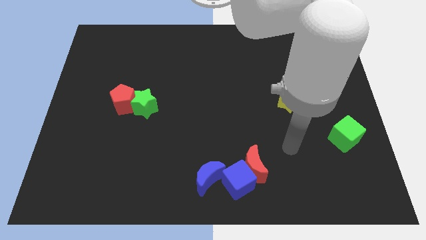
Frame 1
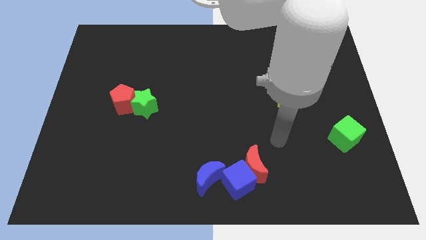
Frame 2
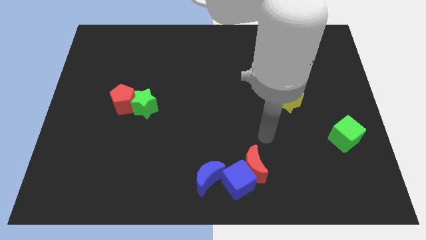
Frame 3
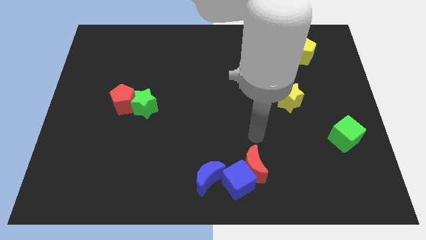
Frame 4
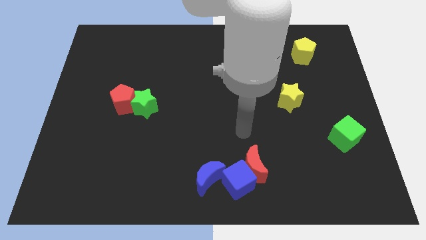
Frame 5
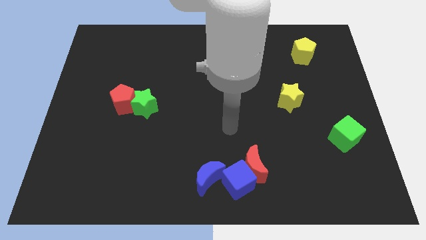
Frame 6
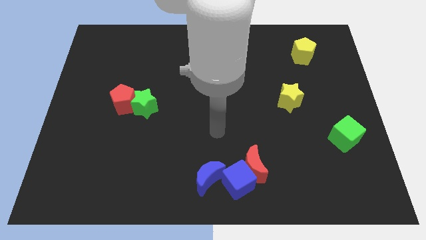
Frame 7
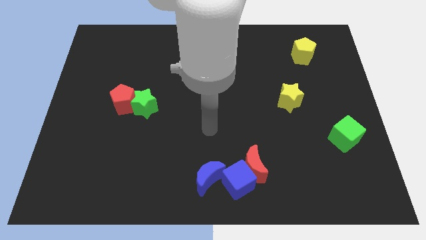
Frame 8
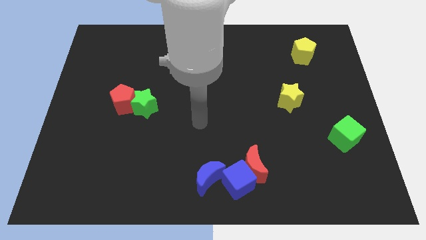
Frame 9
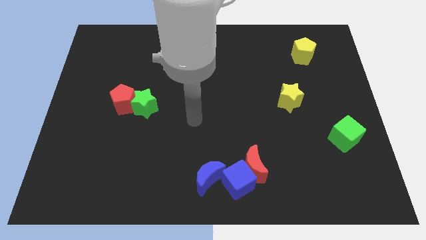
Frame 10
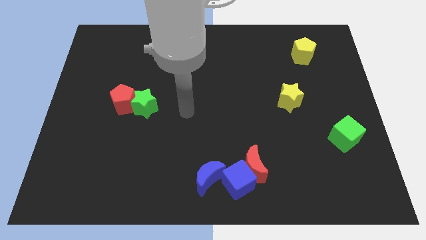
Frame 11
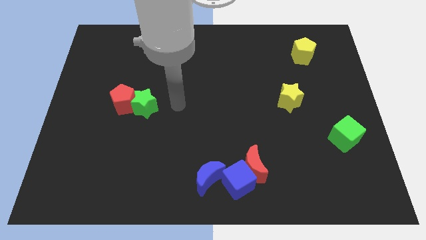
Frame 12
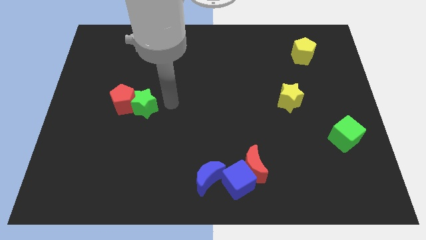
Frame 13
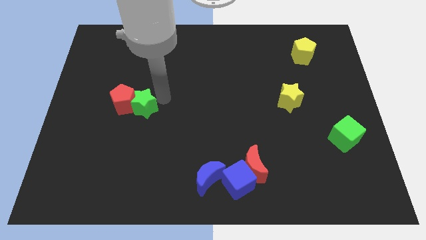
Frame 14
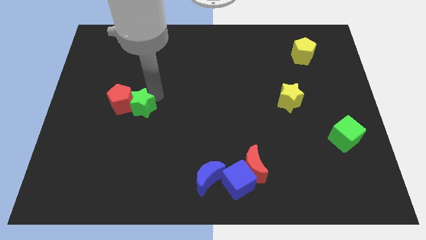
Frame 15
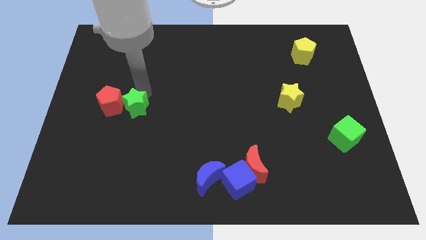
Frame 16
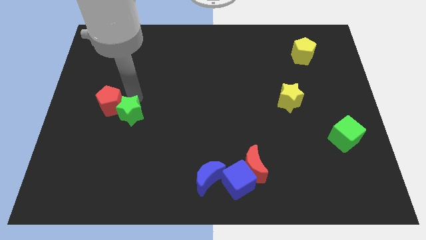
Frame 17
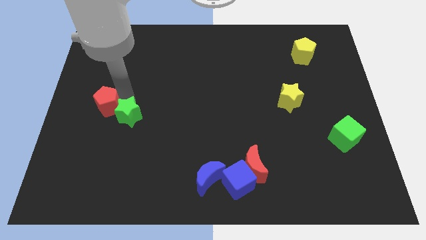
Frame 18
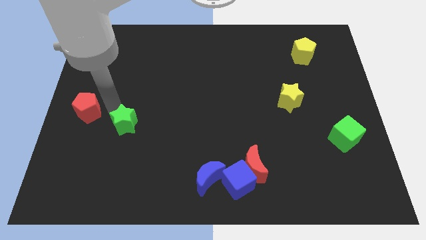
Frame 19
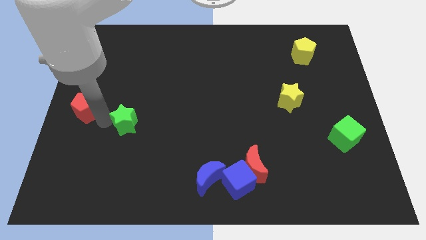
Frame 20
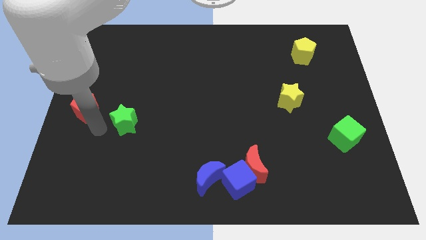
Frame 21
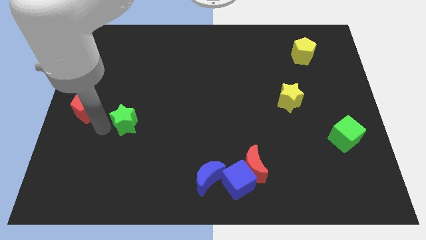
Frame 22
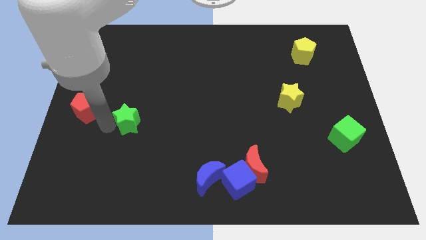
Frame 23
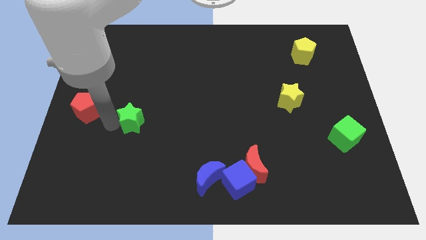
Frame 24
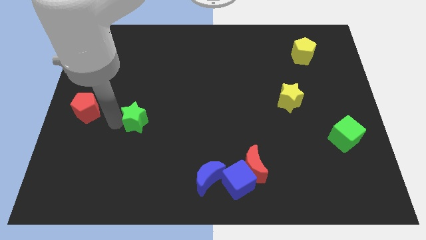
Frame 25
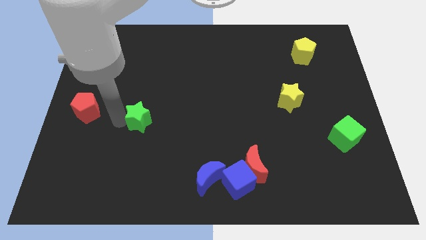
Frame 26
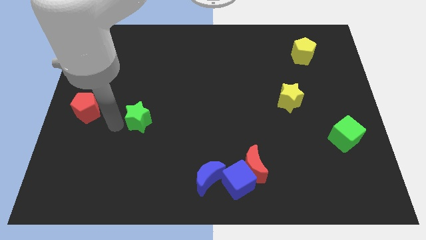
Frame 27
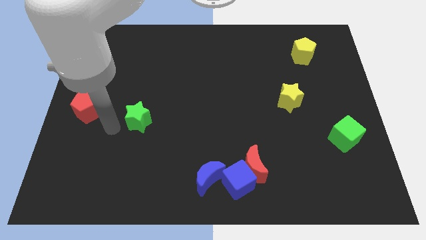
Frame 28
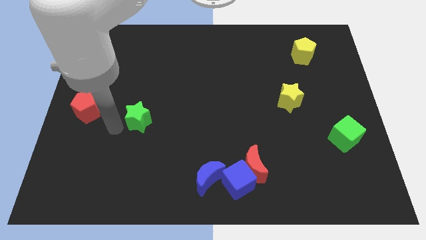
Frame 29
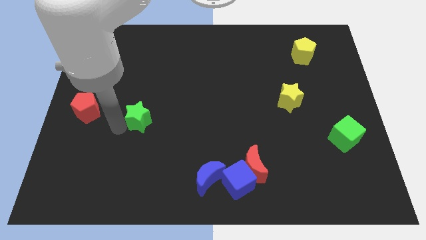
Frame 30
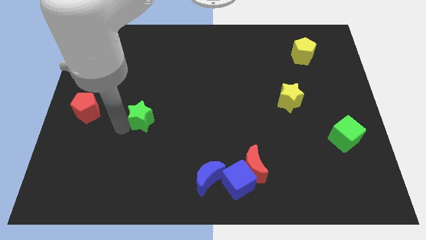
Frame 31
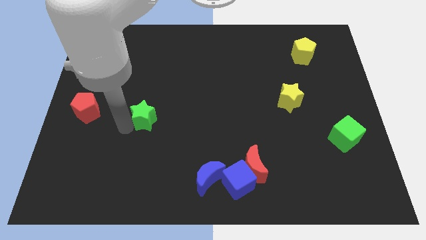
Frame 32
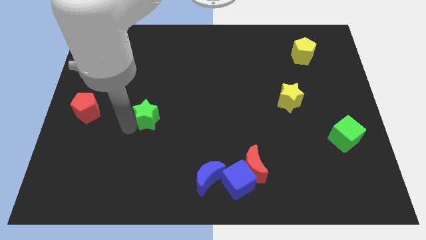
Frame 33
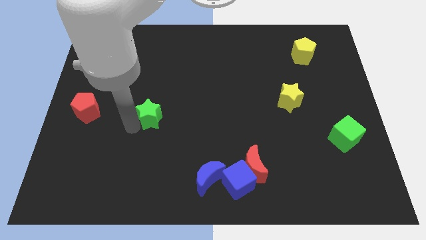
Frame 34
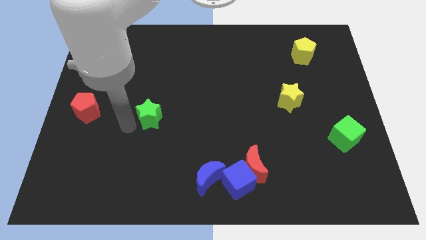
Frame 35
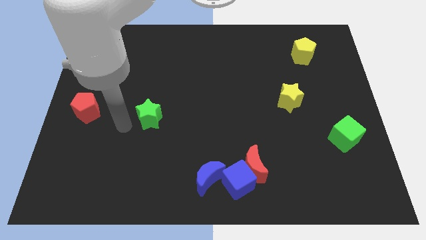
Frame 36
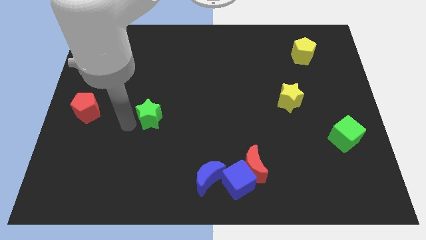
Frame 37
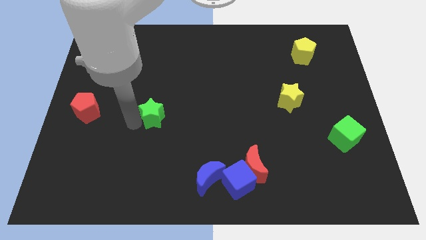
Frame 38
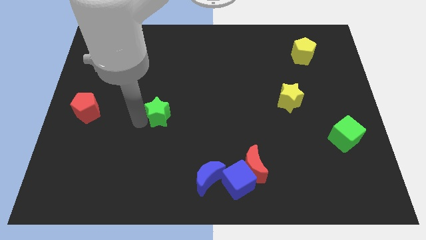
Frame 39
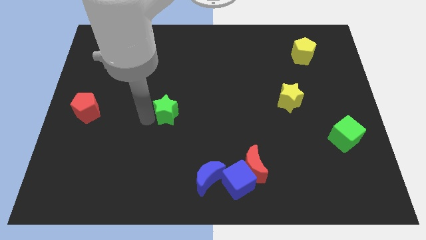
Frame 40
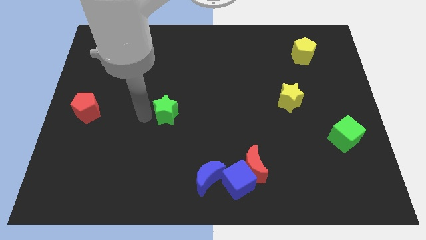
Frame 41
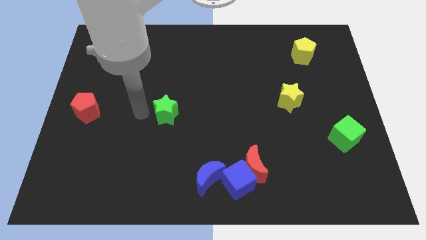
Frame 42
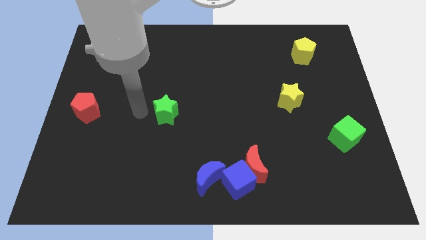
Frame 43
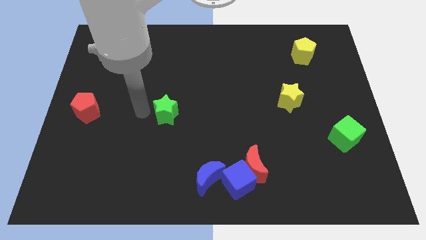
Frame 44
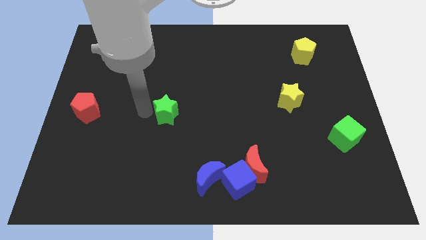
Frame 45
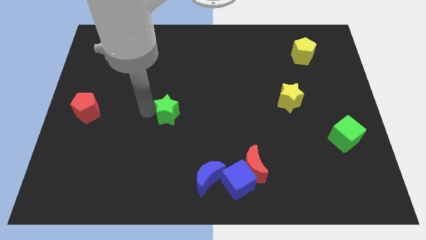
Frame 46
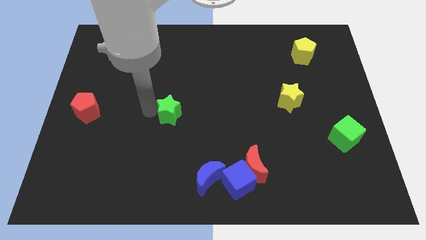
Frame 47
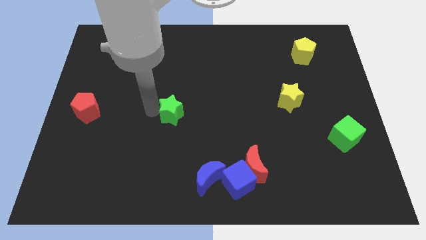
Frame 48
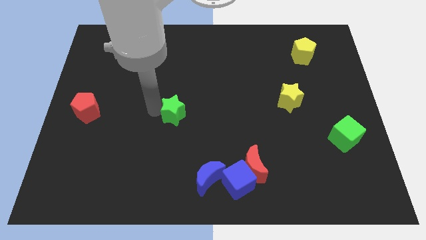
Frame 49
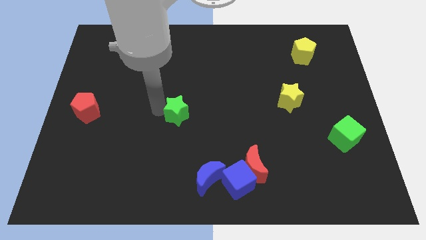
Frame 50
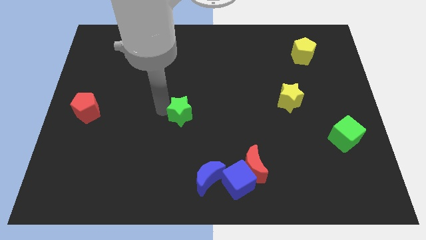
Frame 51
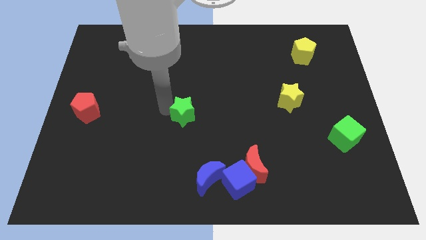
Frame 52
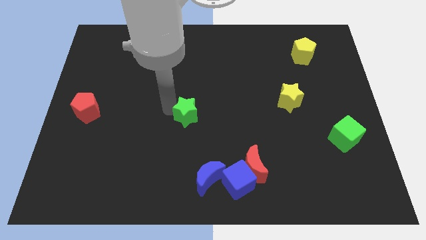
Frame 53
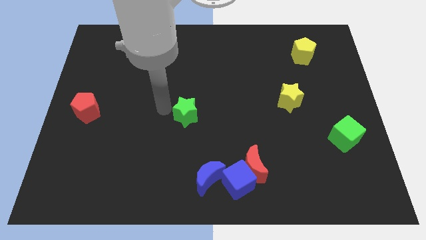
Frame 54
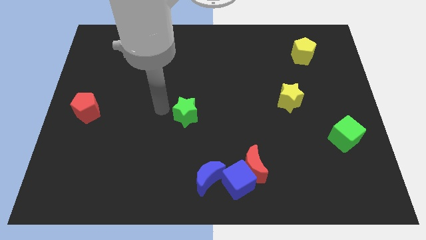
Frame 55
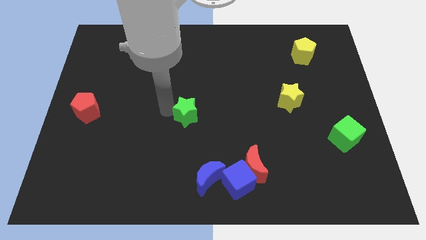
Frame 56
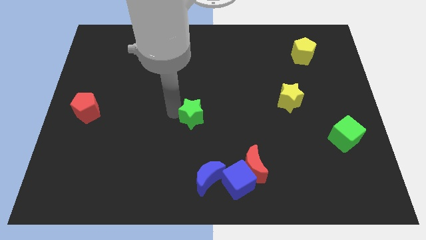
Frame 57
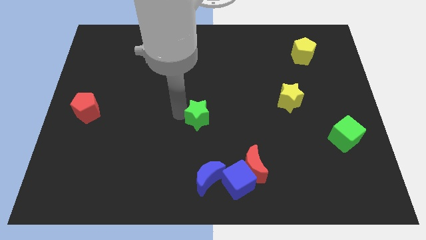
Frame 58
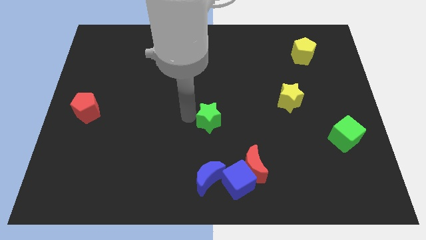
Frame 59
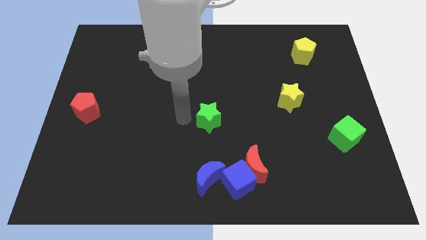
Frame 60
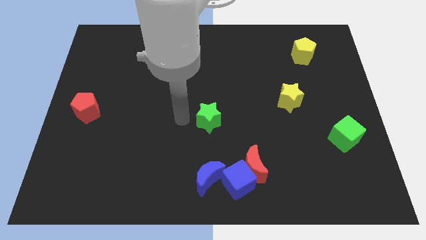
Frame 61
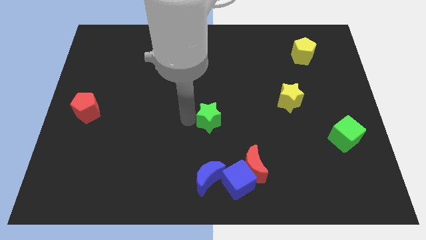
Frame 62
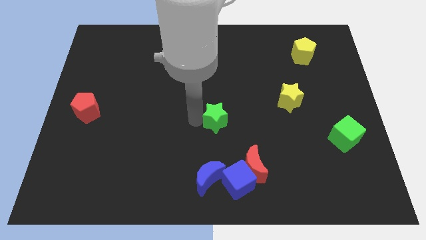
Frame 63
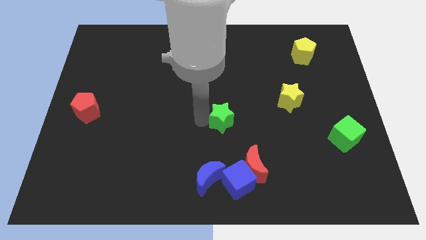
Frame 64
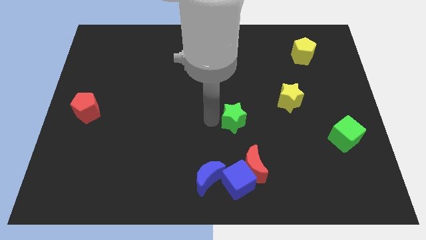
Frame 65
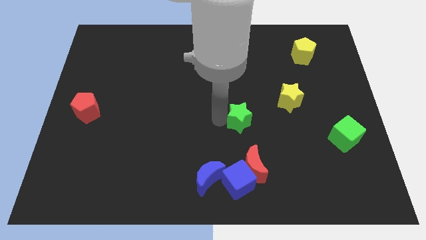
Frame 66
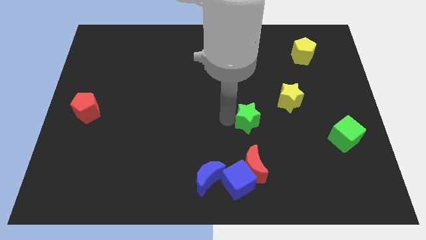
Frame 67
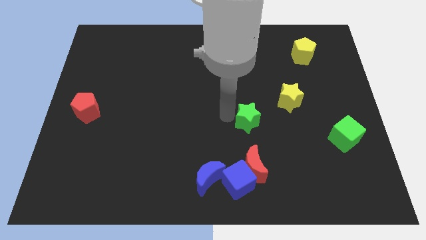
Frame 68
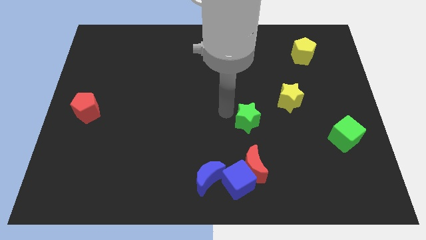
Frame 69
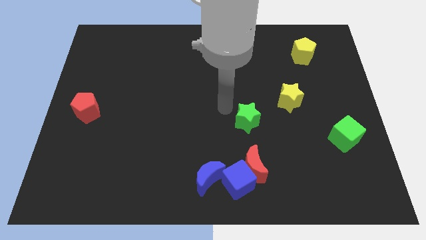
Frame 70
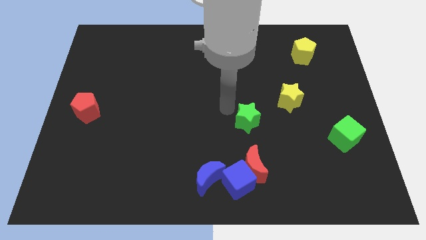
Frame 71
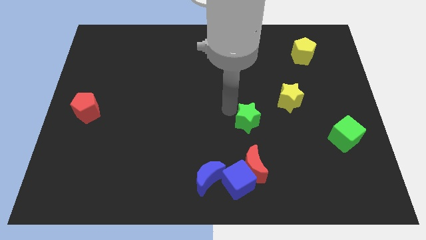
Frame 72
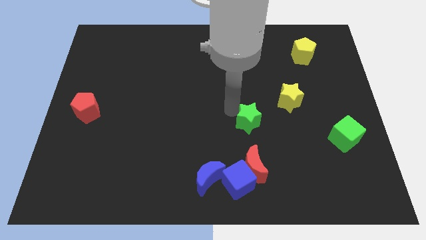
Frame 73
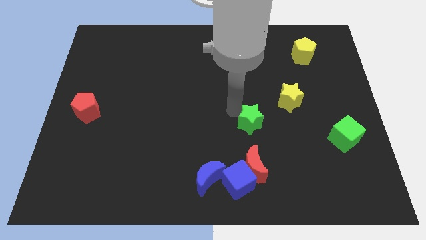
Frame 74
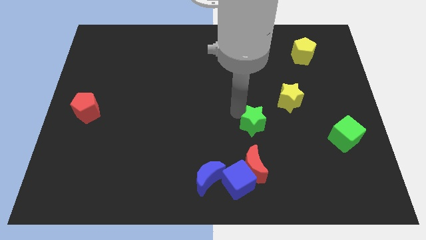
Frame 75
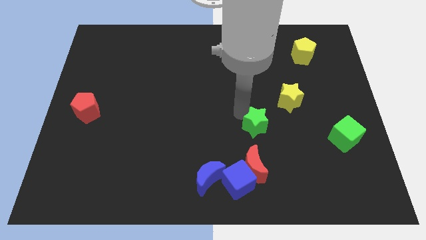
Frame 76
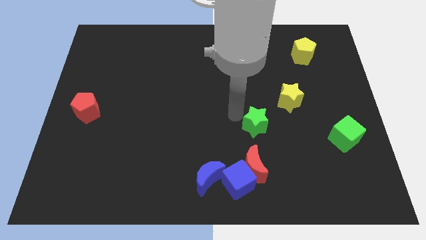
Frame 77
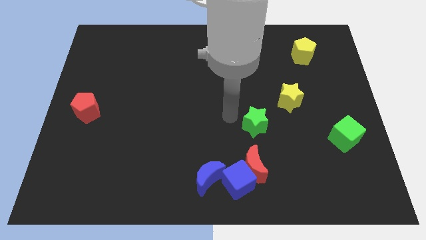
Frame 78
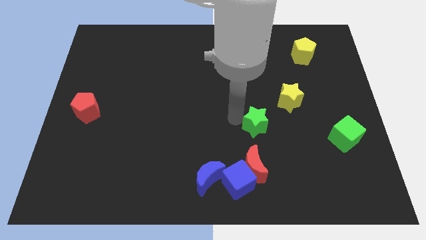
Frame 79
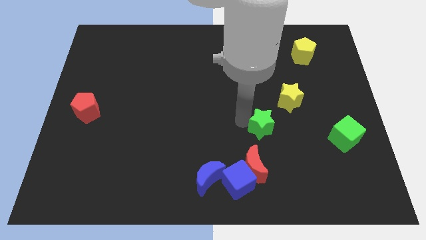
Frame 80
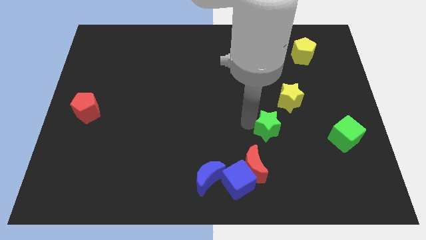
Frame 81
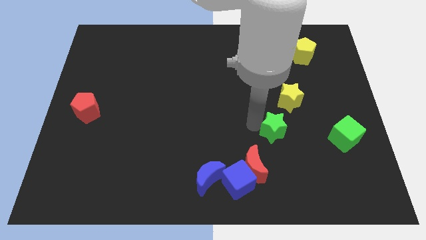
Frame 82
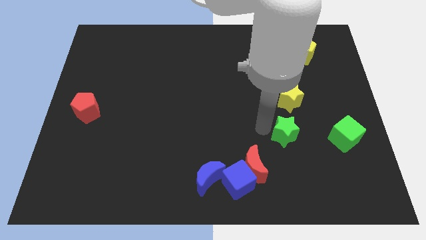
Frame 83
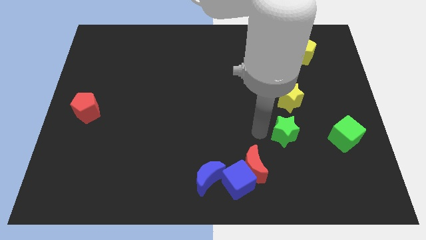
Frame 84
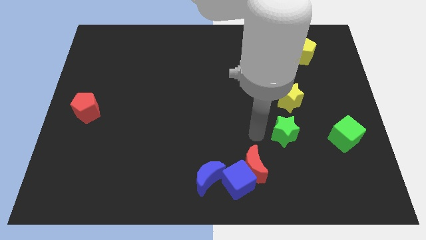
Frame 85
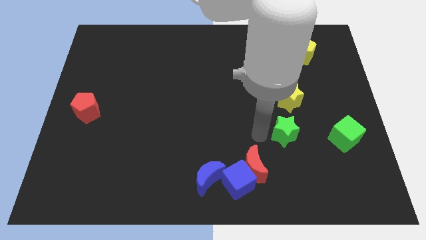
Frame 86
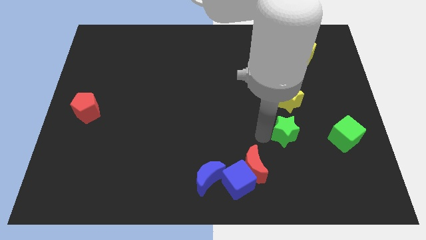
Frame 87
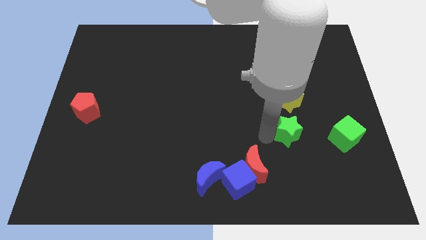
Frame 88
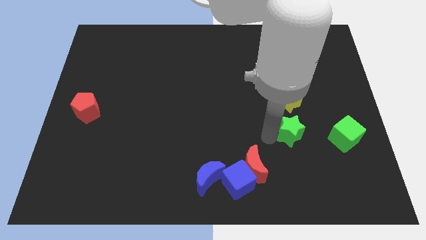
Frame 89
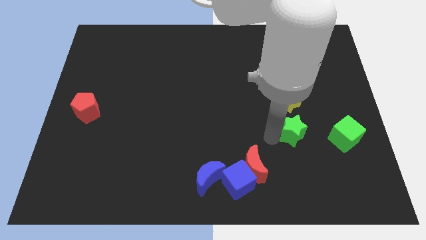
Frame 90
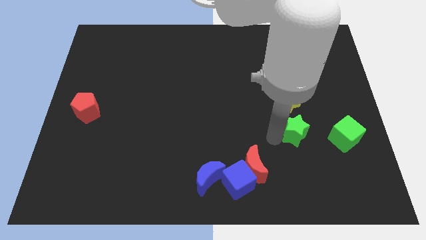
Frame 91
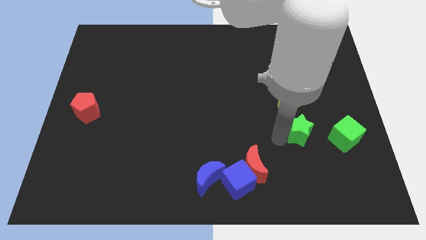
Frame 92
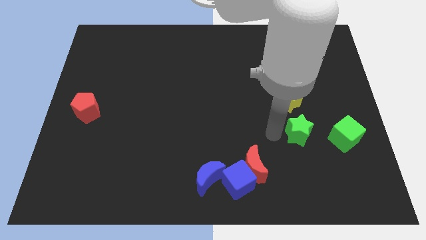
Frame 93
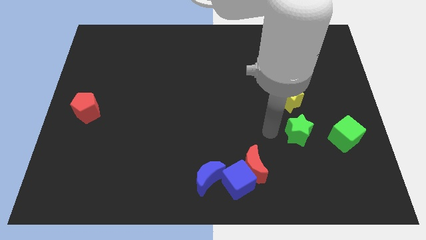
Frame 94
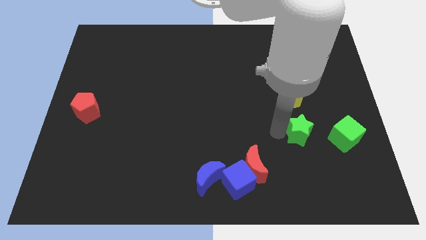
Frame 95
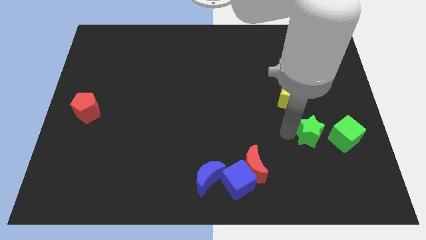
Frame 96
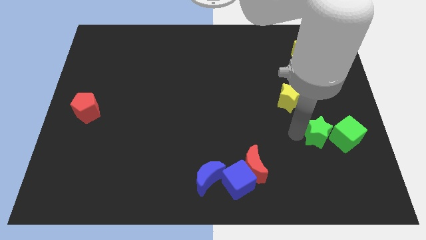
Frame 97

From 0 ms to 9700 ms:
put the green star close to the green cube
